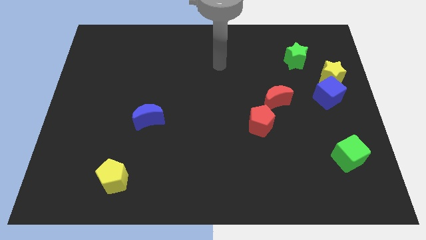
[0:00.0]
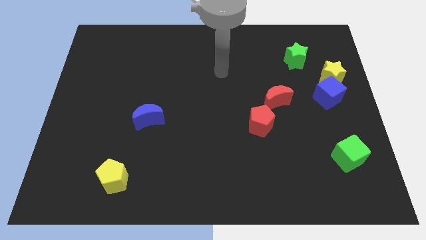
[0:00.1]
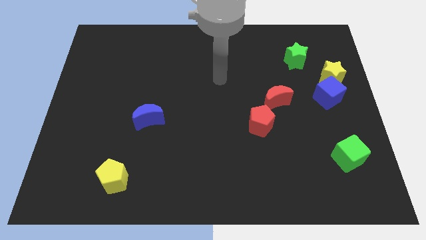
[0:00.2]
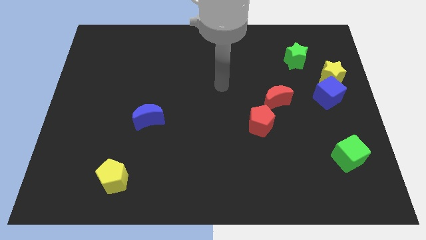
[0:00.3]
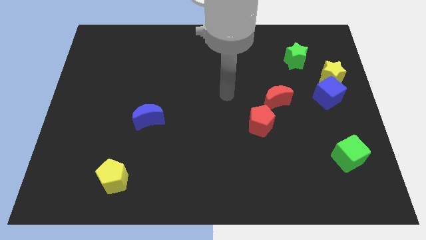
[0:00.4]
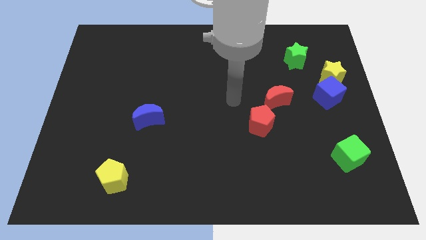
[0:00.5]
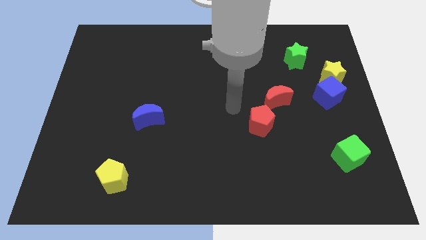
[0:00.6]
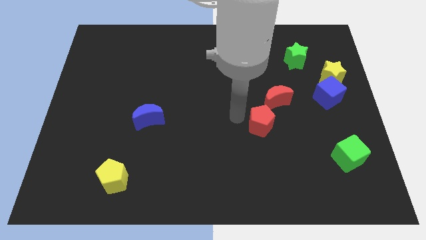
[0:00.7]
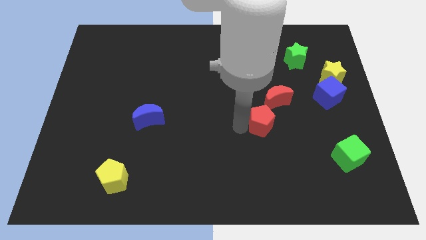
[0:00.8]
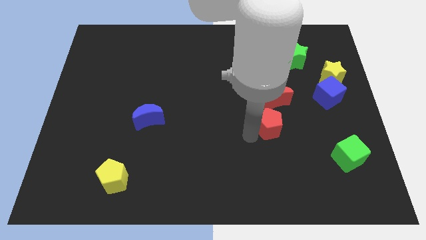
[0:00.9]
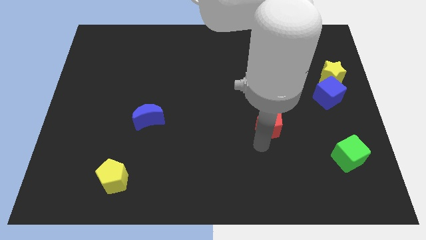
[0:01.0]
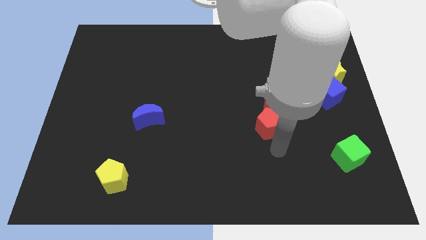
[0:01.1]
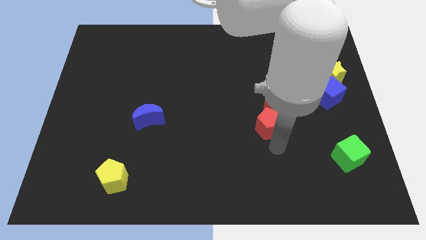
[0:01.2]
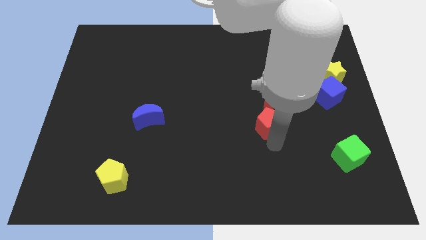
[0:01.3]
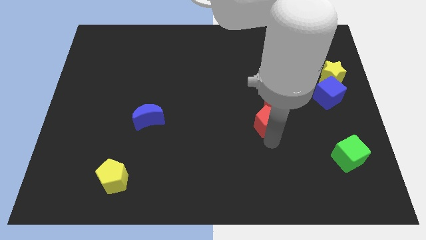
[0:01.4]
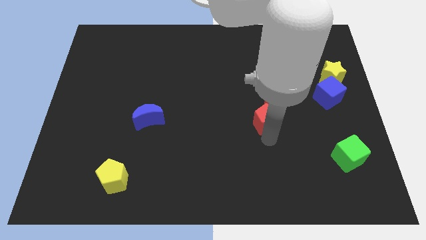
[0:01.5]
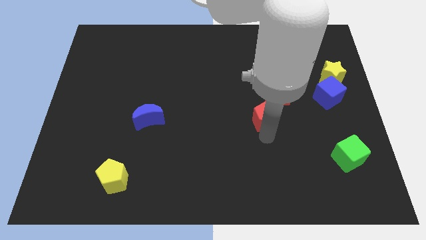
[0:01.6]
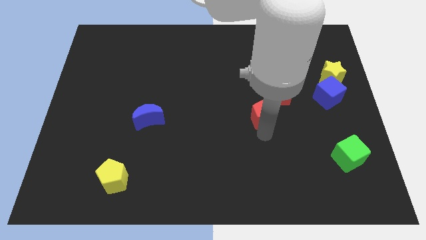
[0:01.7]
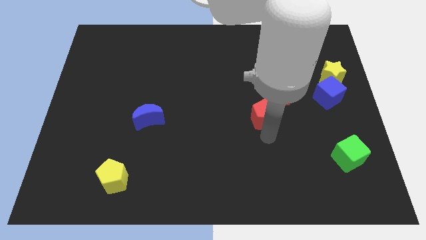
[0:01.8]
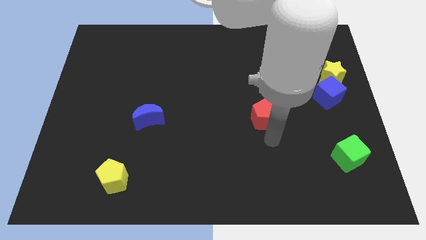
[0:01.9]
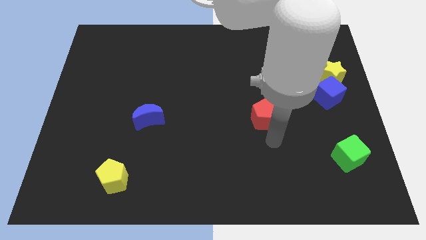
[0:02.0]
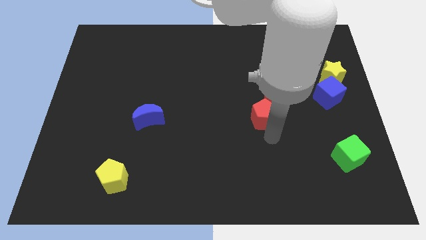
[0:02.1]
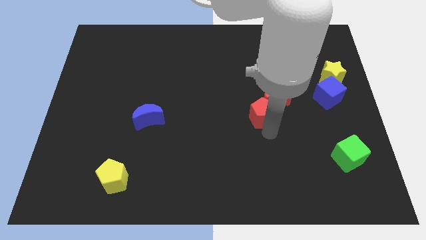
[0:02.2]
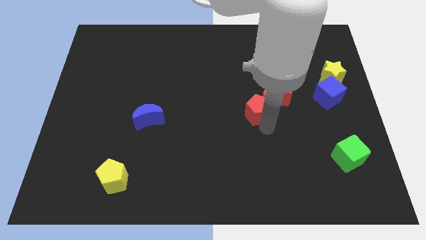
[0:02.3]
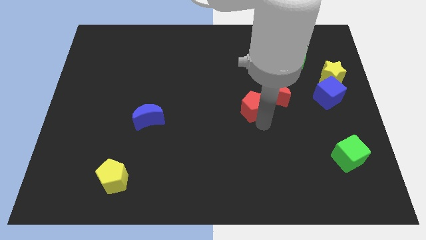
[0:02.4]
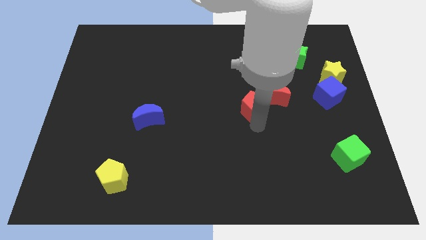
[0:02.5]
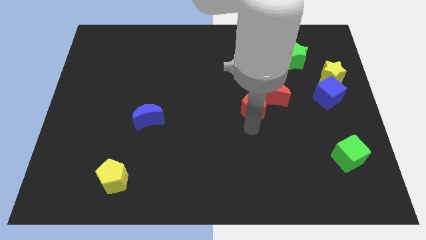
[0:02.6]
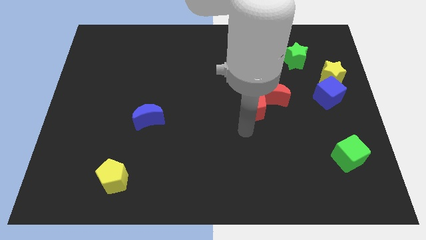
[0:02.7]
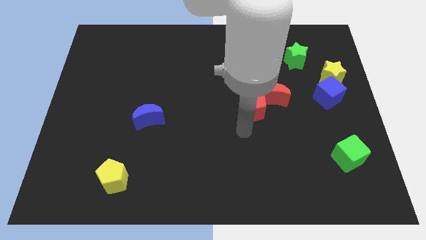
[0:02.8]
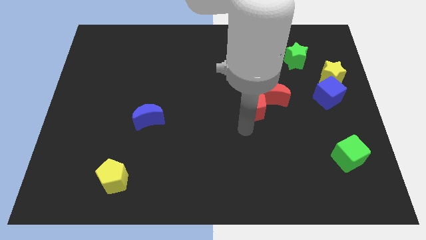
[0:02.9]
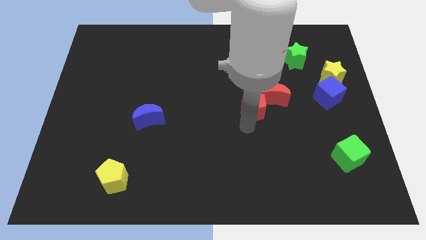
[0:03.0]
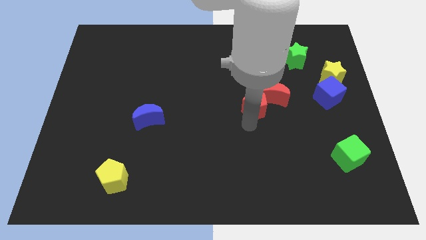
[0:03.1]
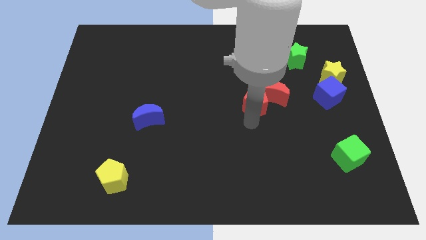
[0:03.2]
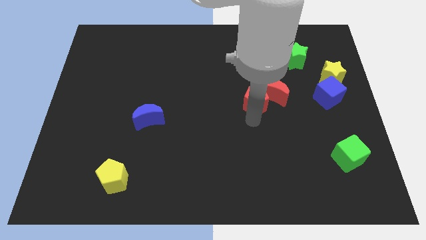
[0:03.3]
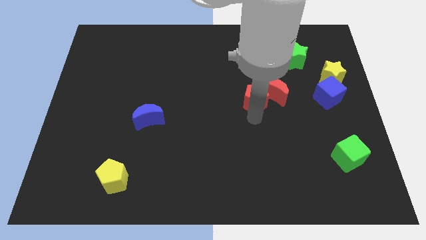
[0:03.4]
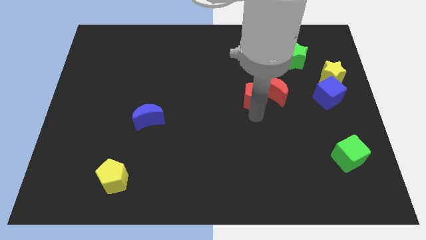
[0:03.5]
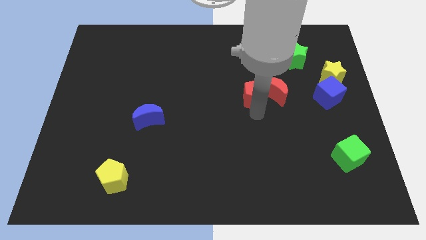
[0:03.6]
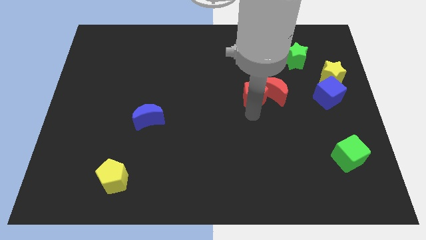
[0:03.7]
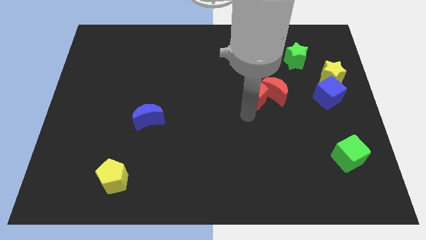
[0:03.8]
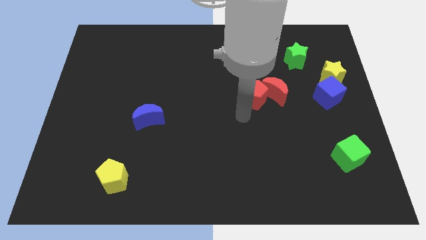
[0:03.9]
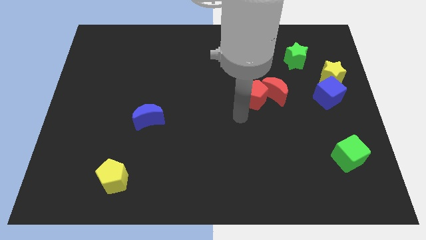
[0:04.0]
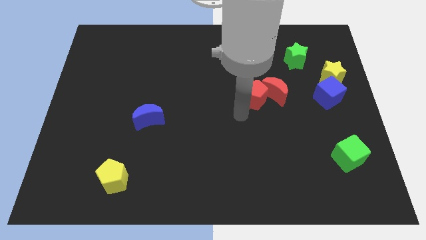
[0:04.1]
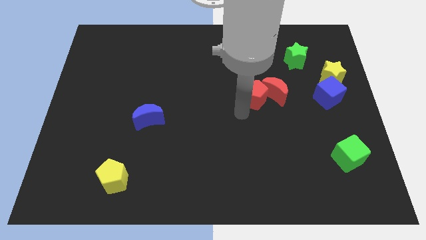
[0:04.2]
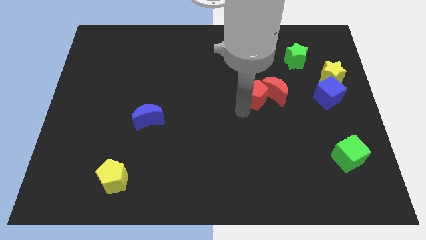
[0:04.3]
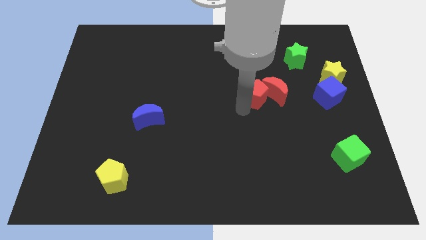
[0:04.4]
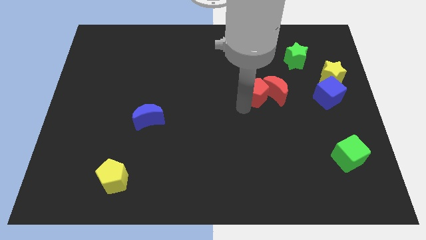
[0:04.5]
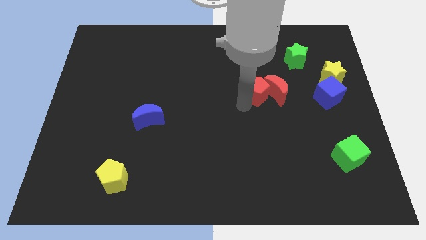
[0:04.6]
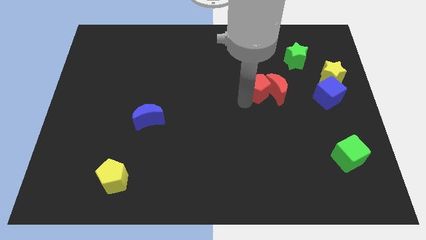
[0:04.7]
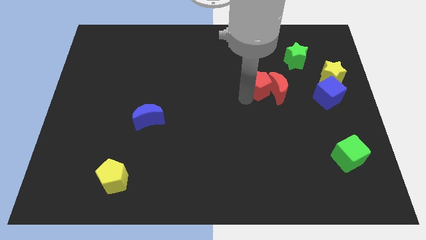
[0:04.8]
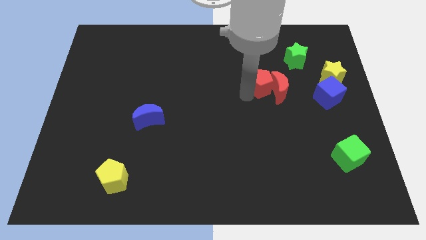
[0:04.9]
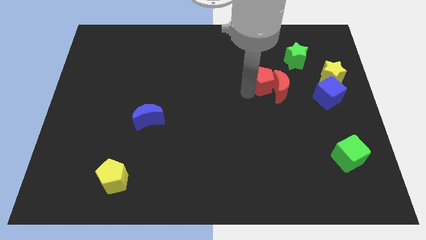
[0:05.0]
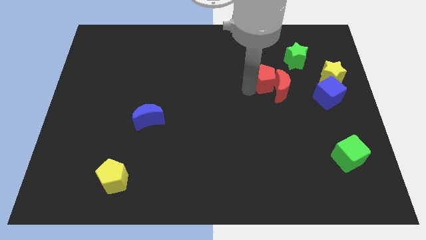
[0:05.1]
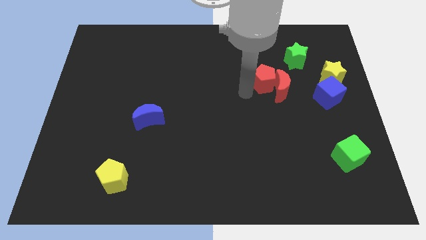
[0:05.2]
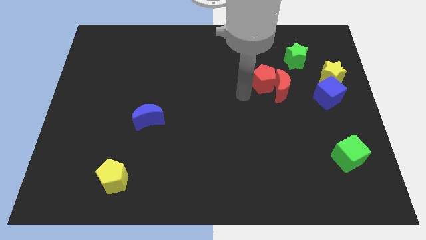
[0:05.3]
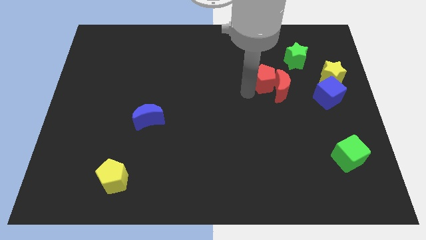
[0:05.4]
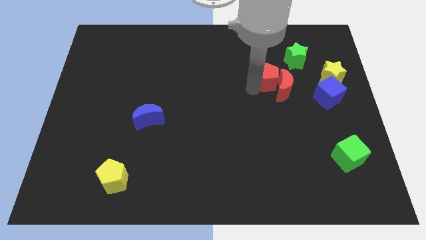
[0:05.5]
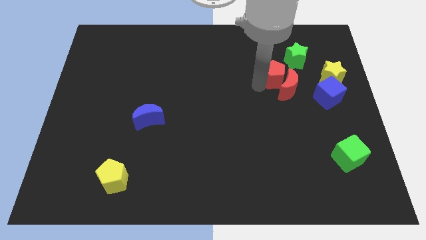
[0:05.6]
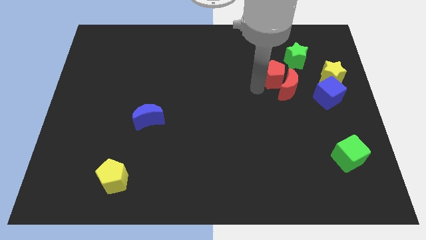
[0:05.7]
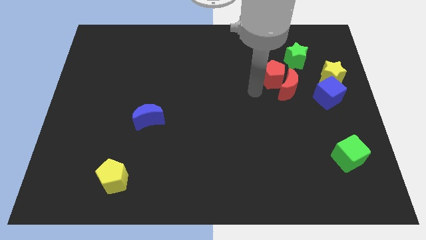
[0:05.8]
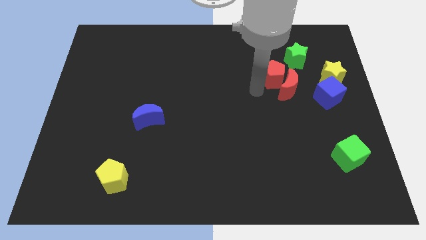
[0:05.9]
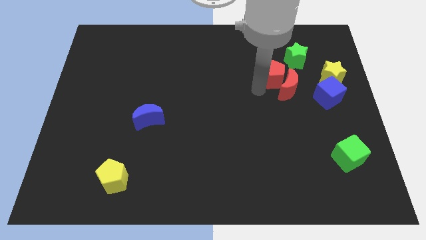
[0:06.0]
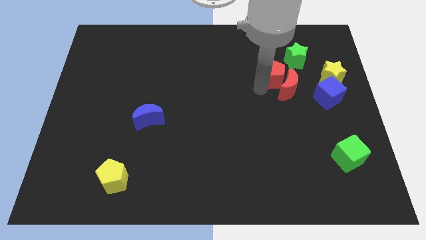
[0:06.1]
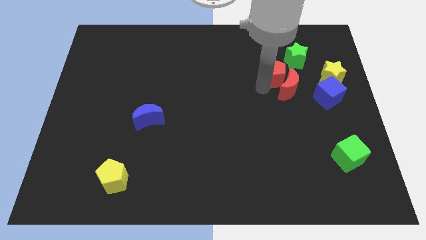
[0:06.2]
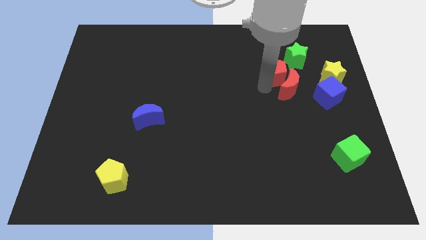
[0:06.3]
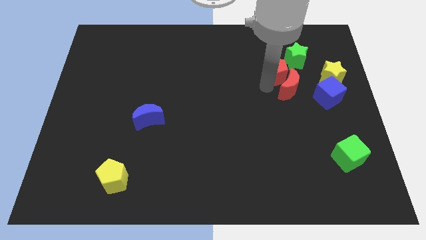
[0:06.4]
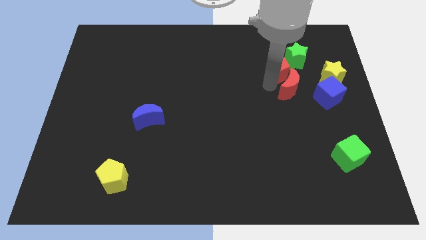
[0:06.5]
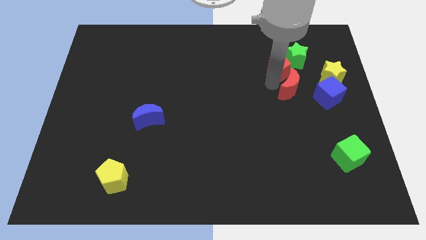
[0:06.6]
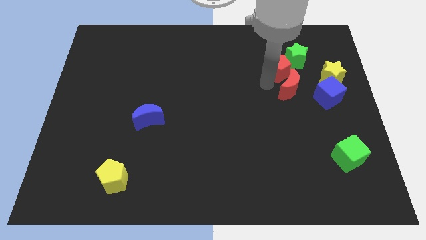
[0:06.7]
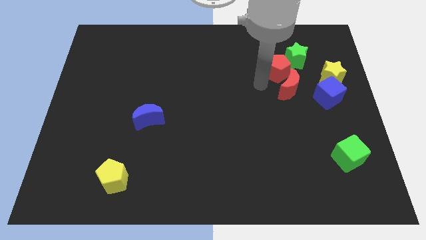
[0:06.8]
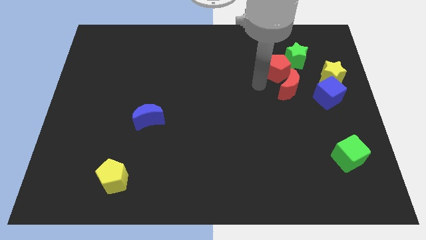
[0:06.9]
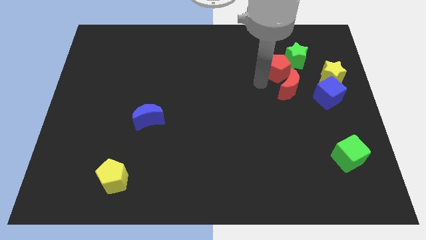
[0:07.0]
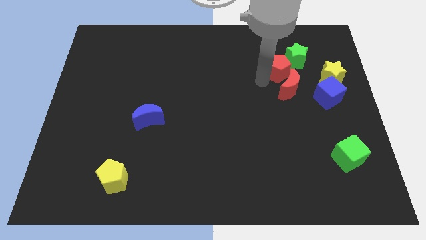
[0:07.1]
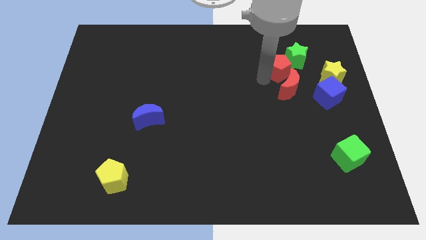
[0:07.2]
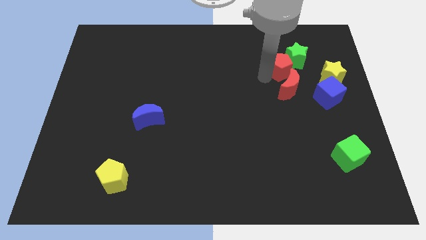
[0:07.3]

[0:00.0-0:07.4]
push the red pentagon next to the green star
